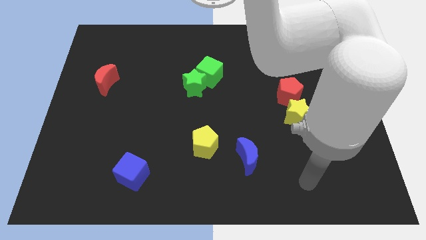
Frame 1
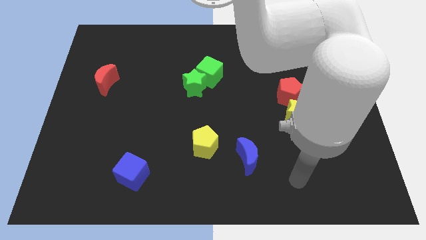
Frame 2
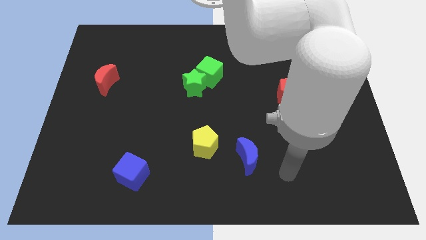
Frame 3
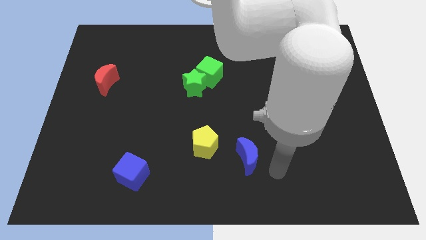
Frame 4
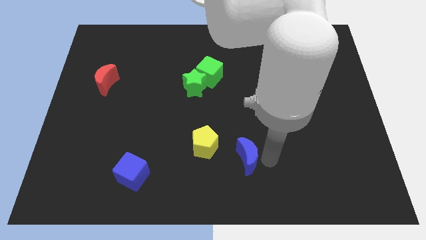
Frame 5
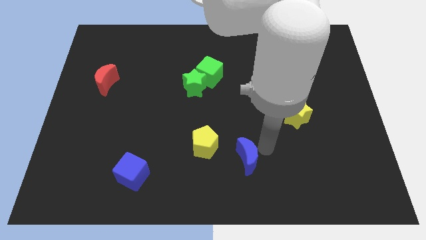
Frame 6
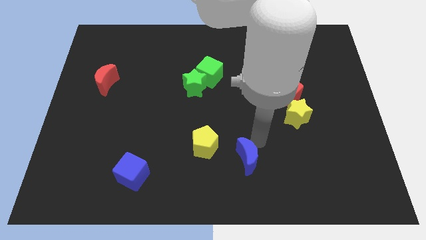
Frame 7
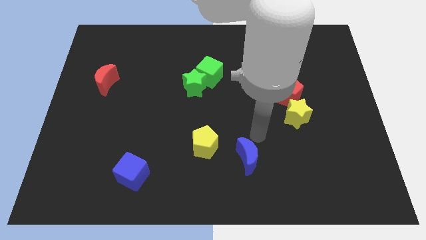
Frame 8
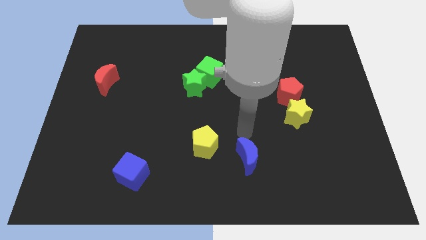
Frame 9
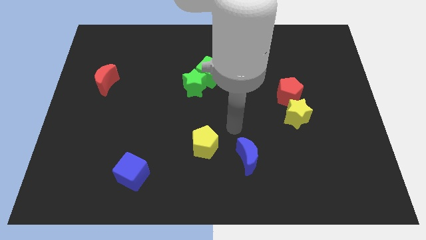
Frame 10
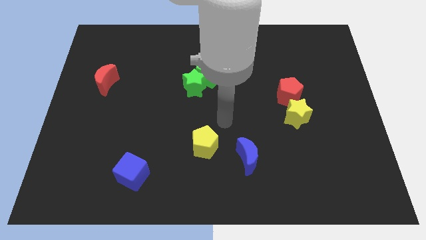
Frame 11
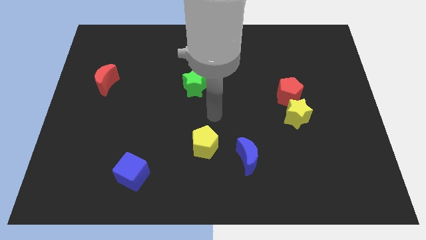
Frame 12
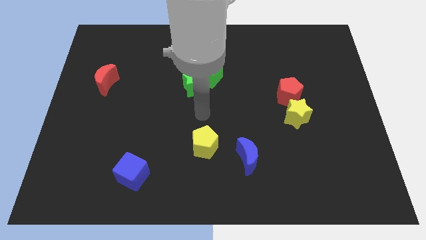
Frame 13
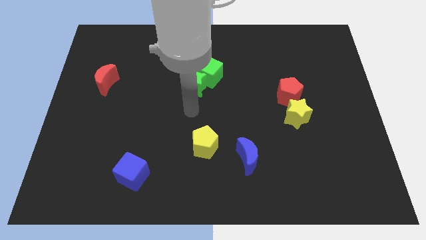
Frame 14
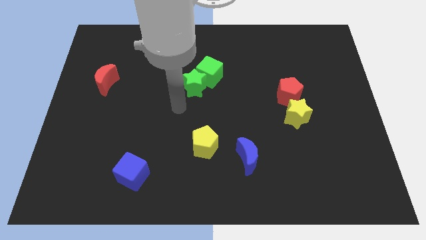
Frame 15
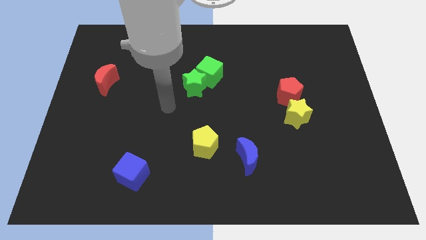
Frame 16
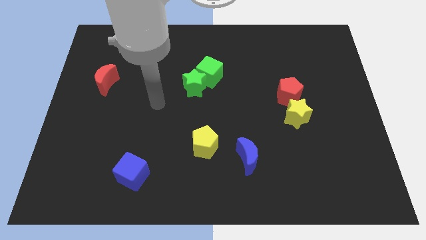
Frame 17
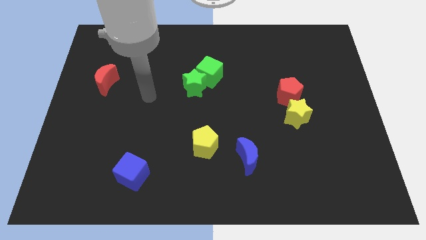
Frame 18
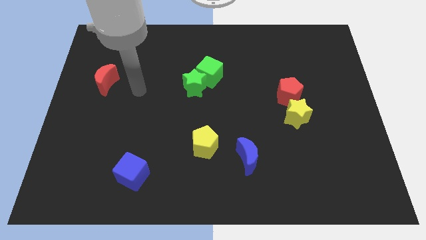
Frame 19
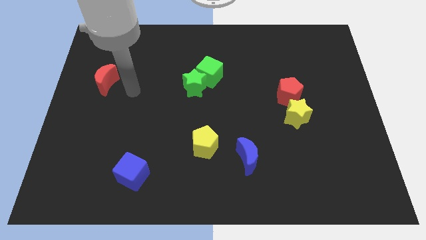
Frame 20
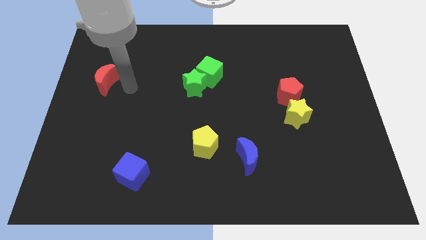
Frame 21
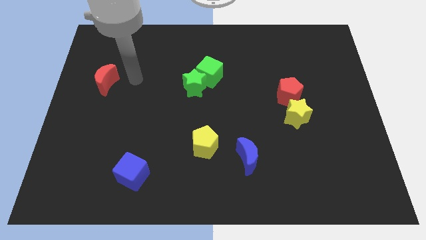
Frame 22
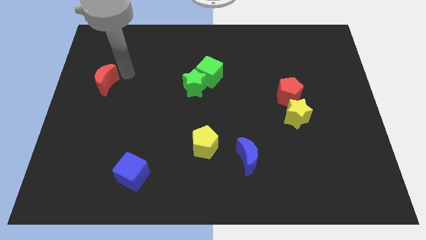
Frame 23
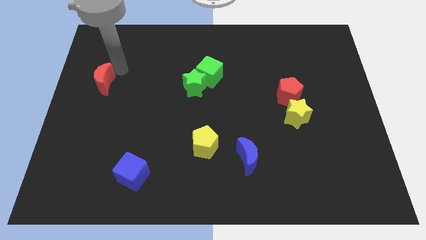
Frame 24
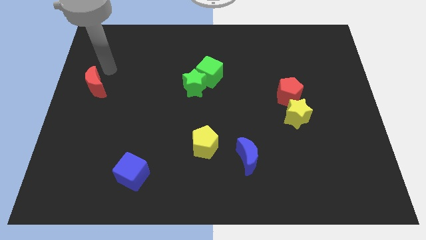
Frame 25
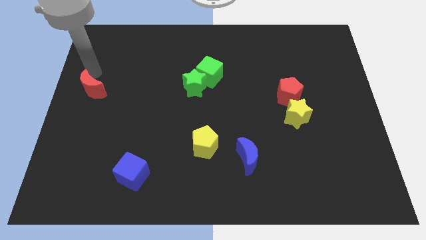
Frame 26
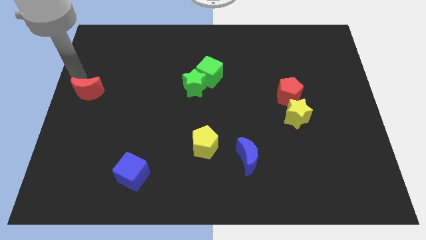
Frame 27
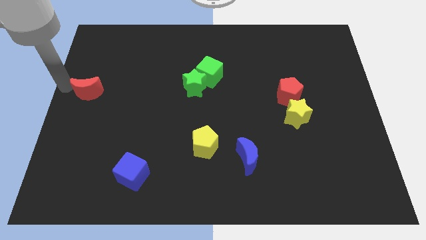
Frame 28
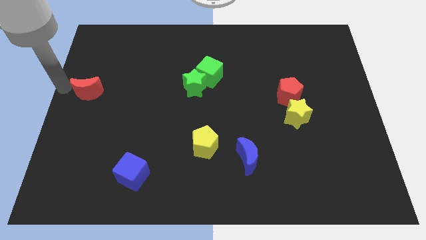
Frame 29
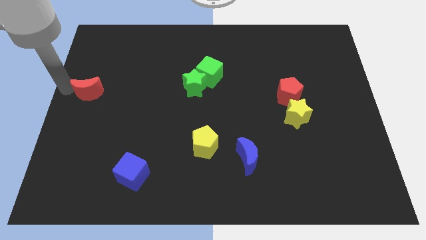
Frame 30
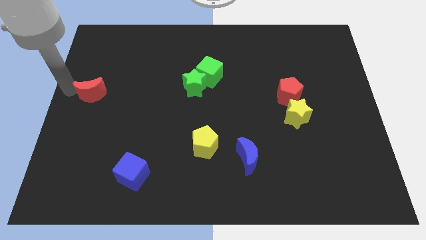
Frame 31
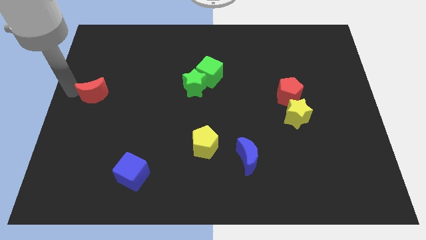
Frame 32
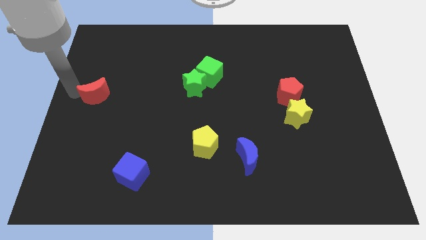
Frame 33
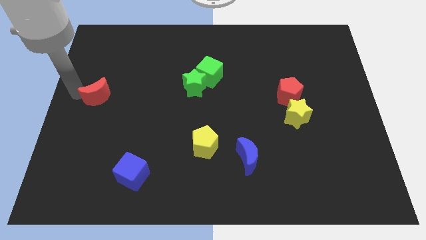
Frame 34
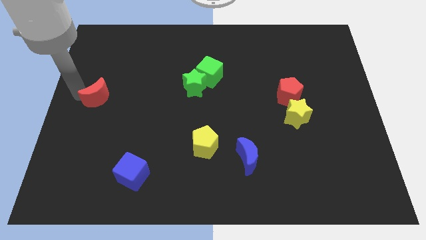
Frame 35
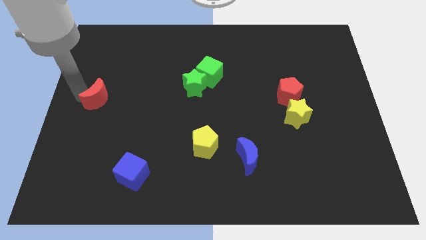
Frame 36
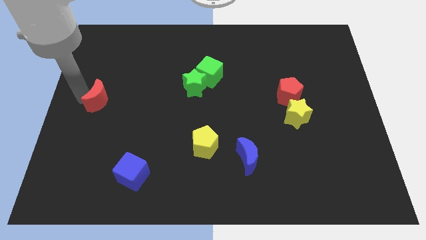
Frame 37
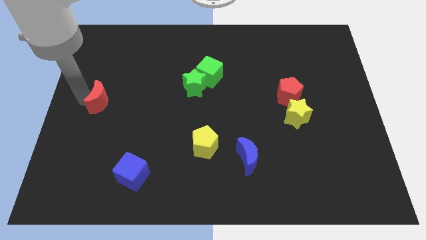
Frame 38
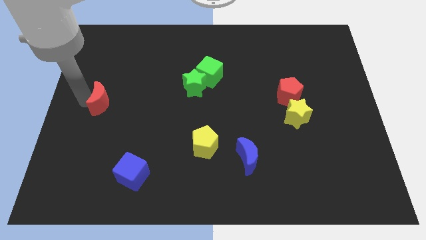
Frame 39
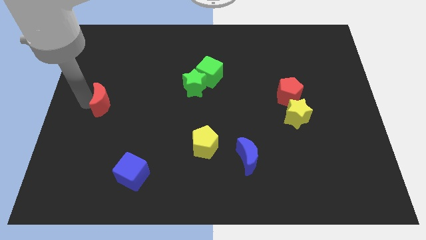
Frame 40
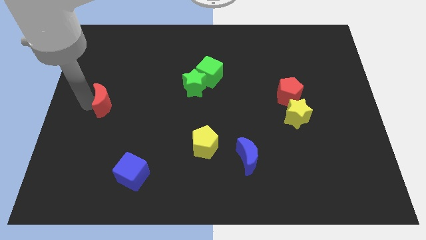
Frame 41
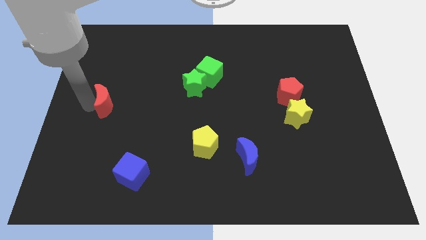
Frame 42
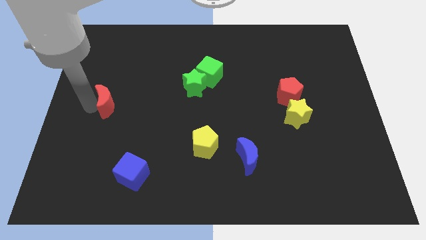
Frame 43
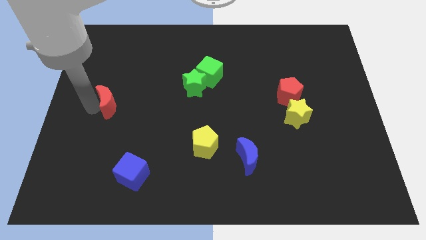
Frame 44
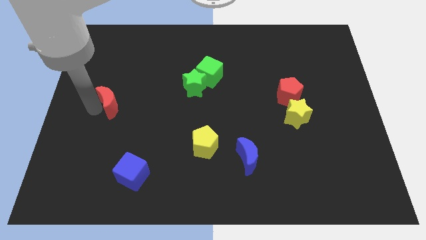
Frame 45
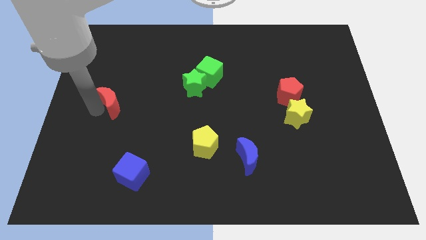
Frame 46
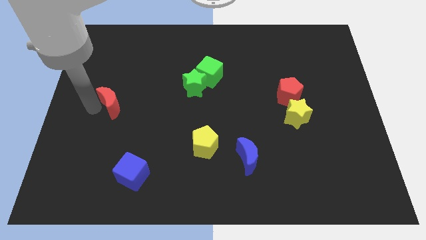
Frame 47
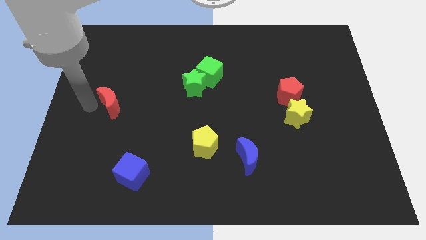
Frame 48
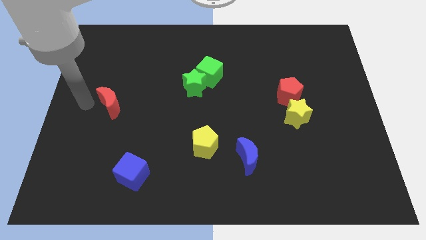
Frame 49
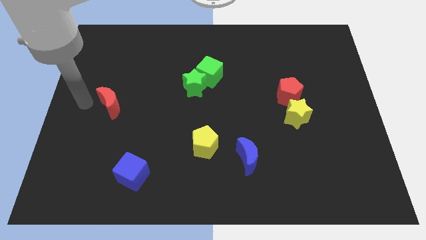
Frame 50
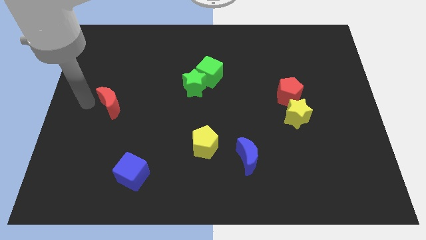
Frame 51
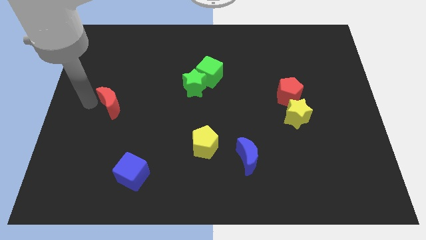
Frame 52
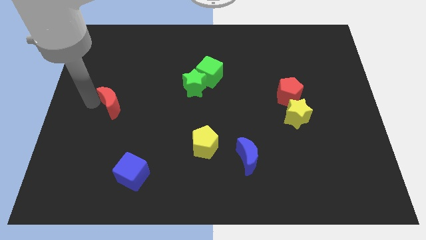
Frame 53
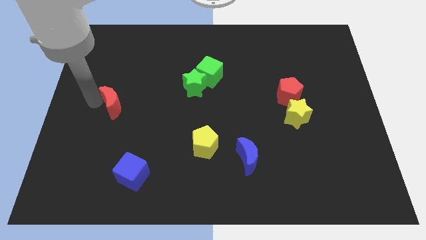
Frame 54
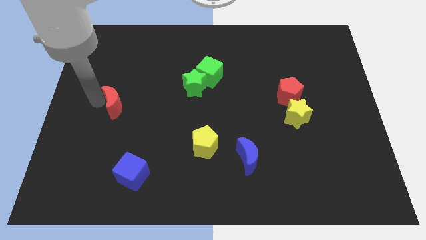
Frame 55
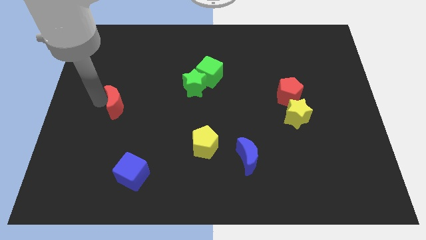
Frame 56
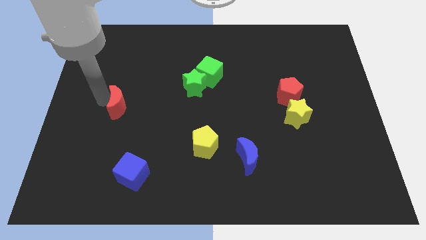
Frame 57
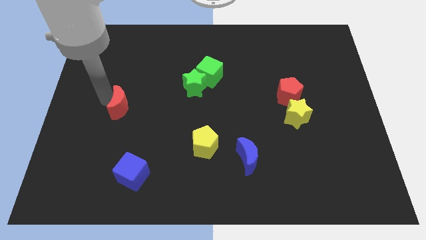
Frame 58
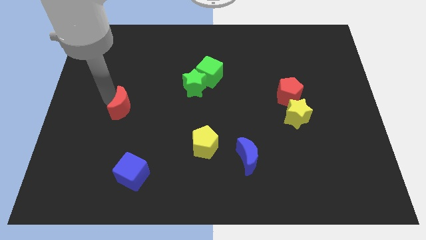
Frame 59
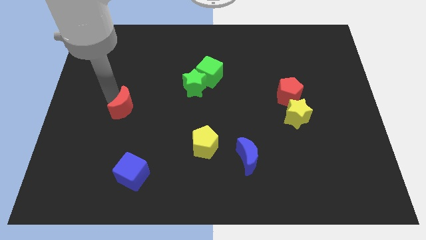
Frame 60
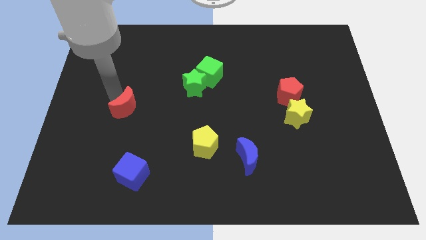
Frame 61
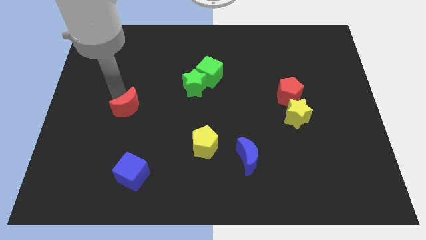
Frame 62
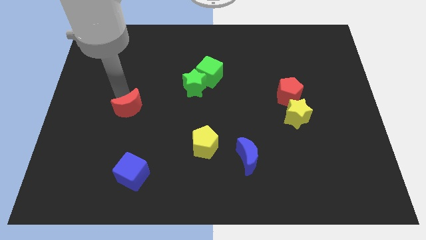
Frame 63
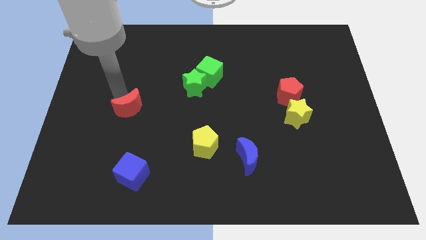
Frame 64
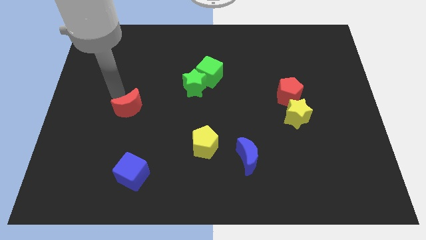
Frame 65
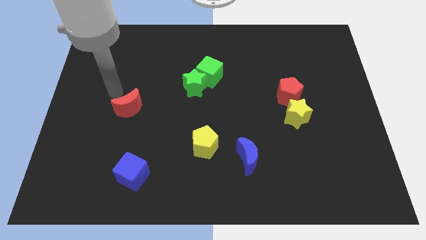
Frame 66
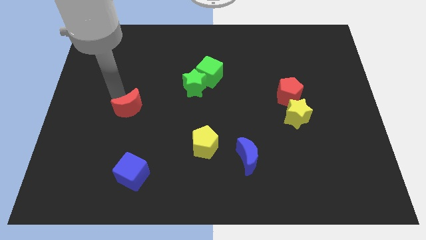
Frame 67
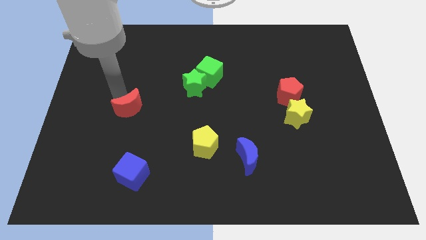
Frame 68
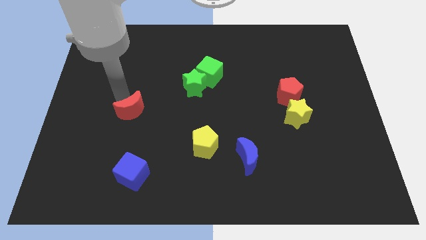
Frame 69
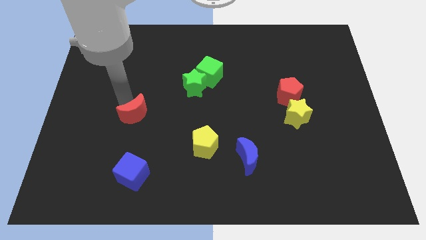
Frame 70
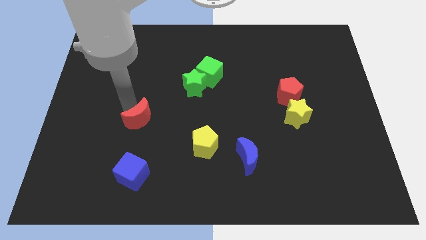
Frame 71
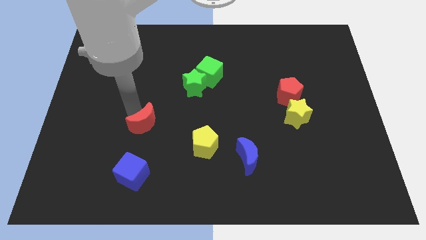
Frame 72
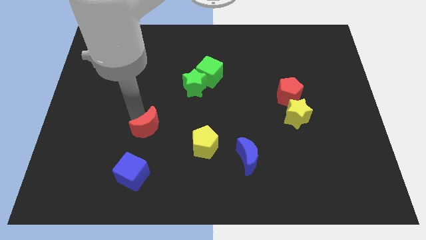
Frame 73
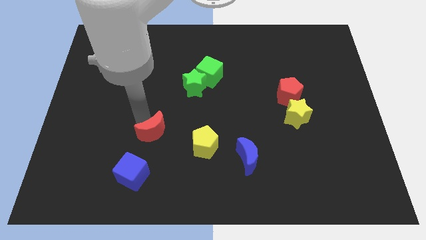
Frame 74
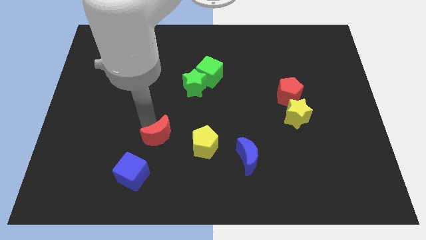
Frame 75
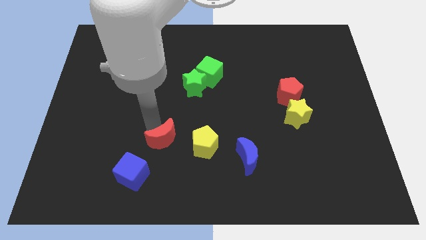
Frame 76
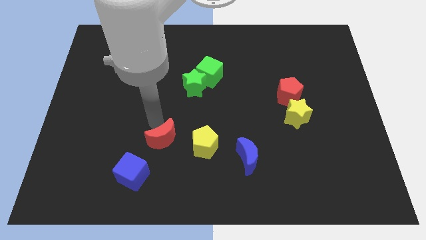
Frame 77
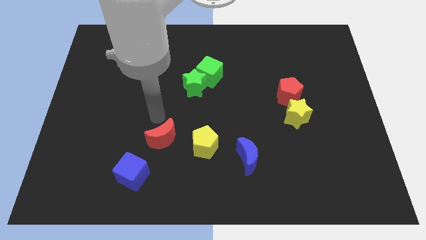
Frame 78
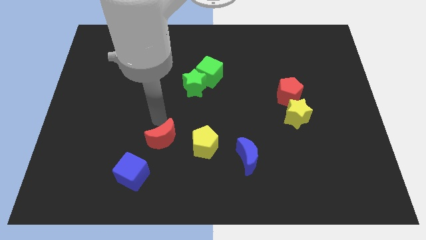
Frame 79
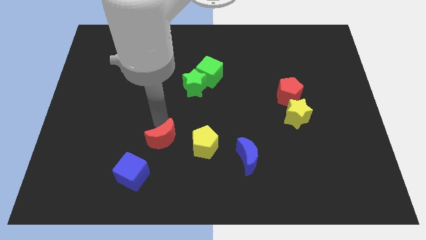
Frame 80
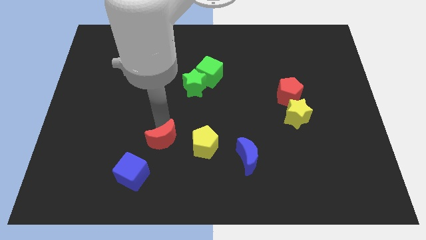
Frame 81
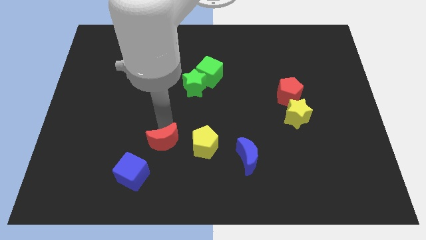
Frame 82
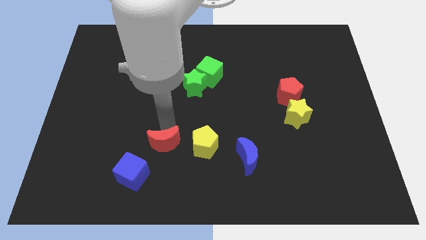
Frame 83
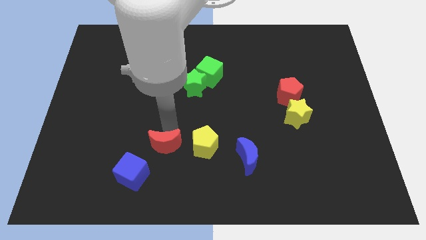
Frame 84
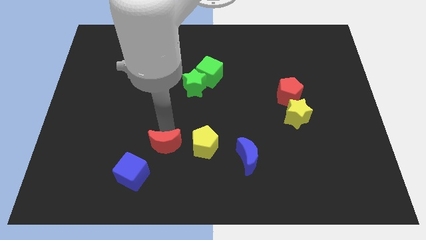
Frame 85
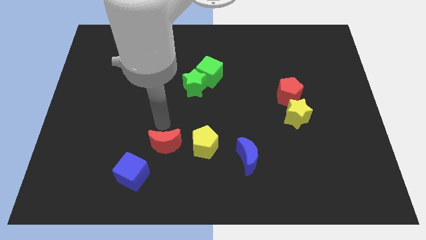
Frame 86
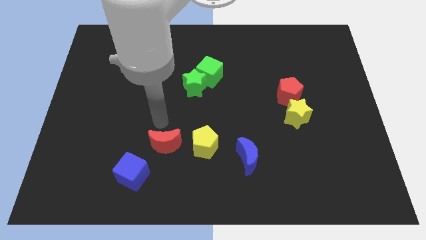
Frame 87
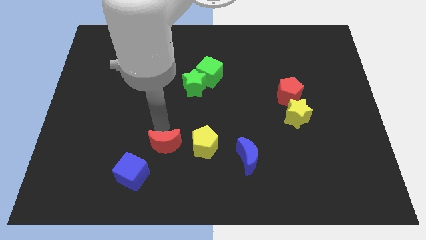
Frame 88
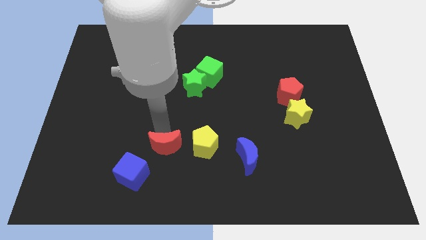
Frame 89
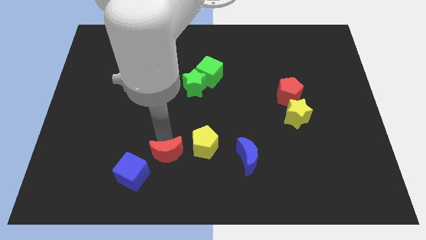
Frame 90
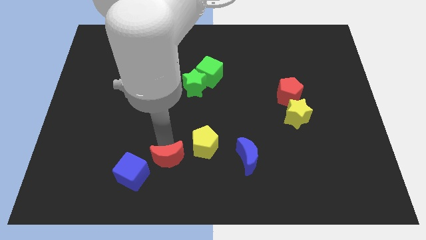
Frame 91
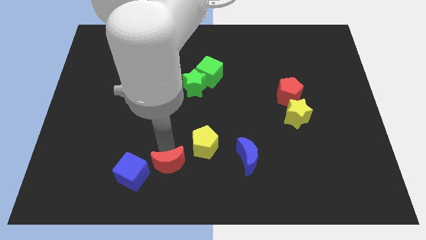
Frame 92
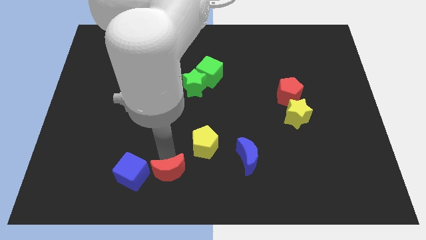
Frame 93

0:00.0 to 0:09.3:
put the red moon to the bottom side
